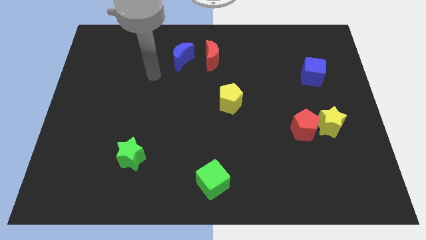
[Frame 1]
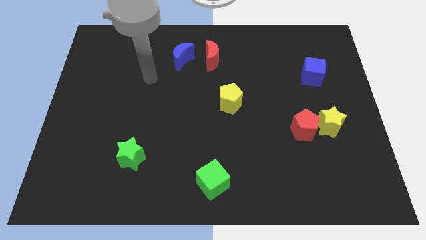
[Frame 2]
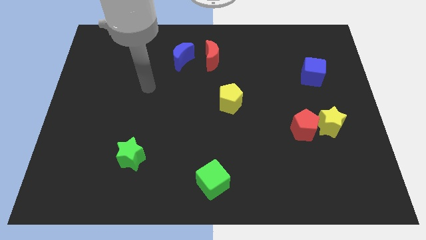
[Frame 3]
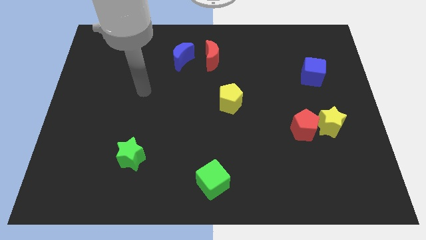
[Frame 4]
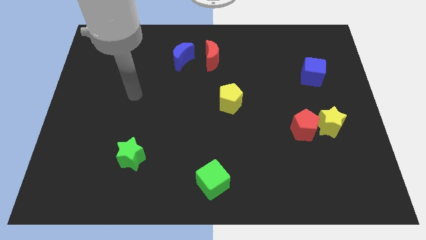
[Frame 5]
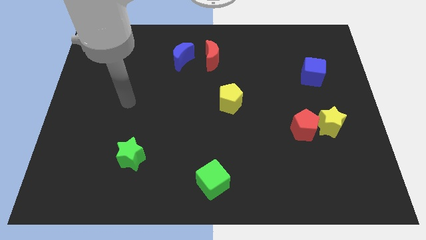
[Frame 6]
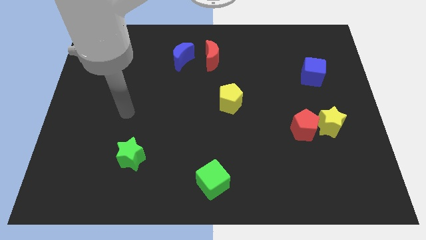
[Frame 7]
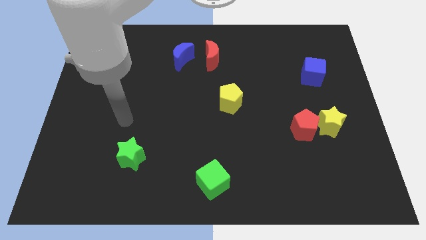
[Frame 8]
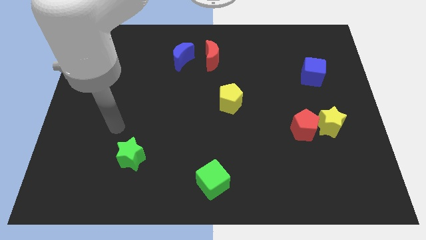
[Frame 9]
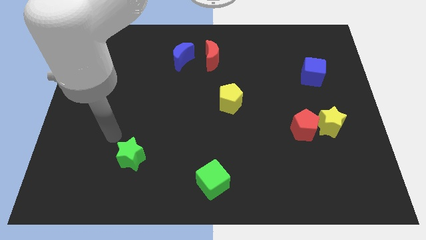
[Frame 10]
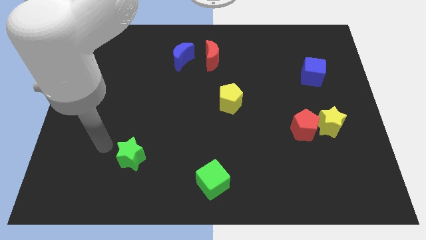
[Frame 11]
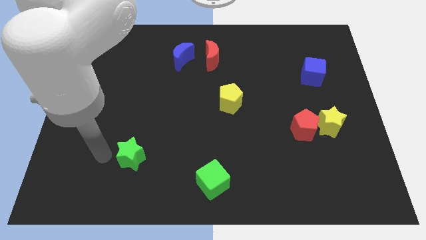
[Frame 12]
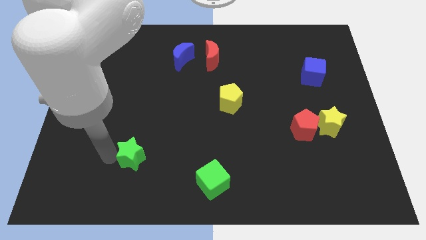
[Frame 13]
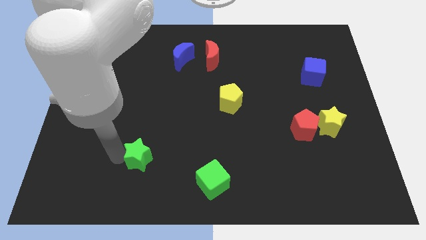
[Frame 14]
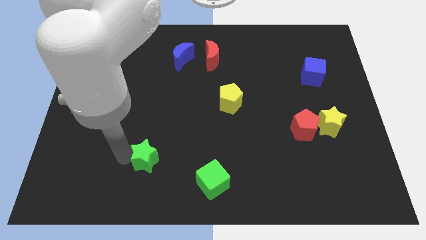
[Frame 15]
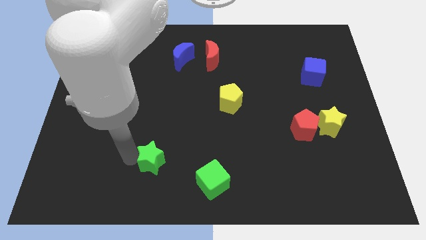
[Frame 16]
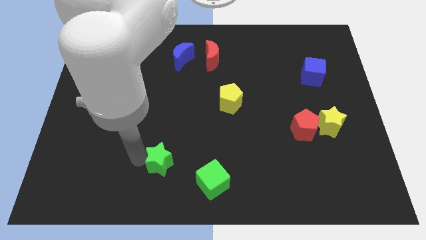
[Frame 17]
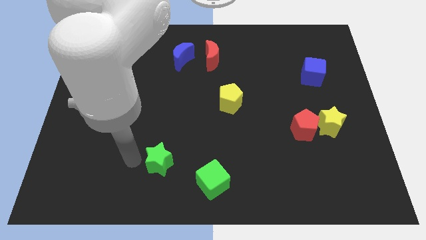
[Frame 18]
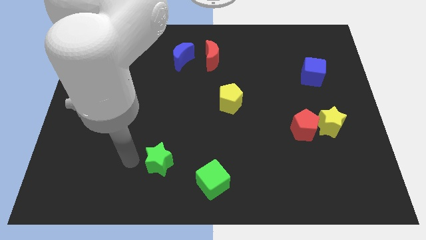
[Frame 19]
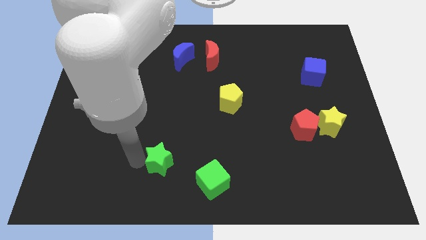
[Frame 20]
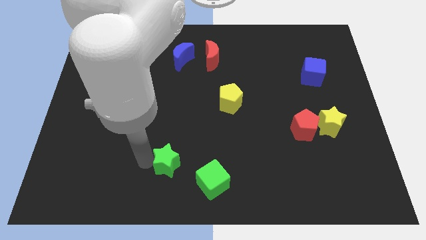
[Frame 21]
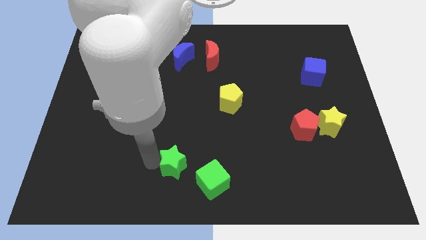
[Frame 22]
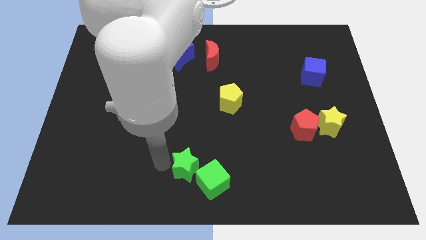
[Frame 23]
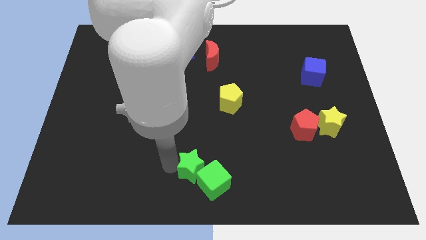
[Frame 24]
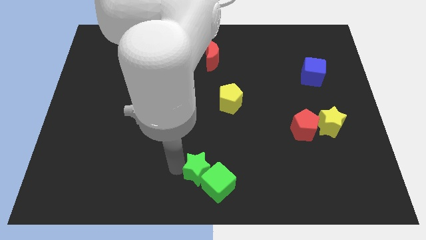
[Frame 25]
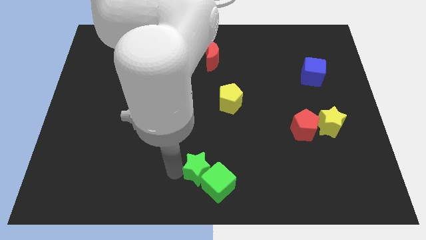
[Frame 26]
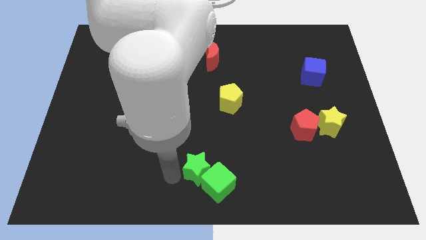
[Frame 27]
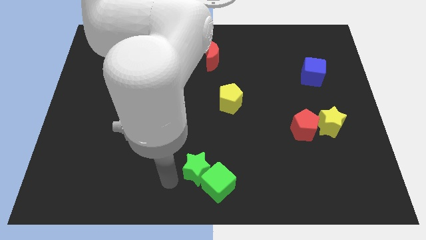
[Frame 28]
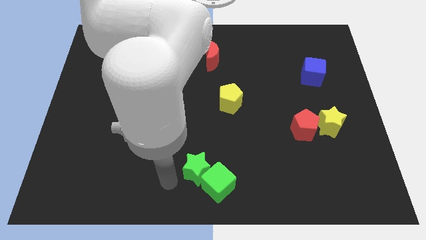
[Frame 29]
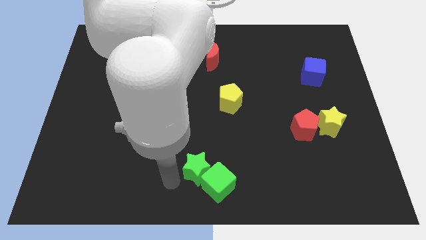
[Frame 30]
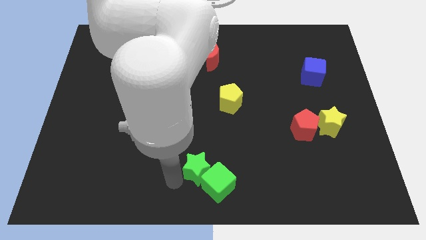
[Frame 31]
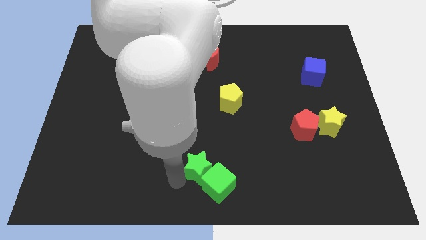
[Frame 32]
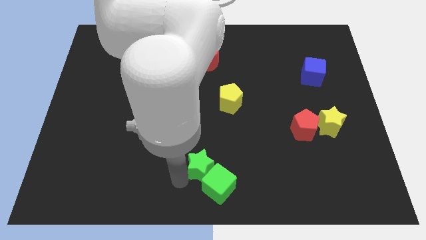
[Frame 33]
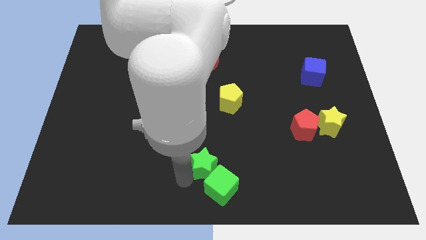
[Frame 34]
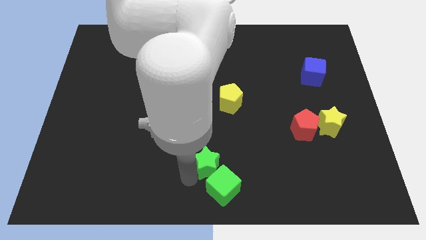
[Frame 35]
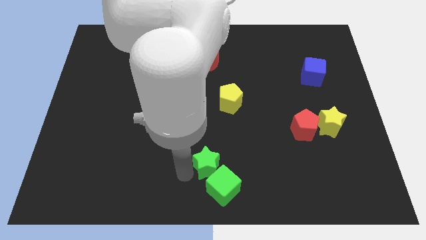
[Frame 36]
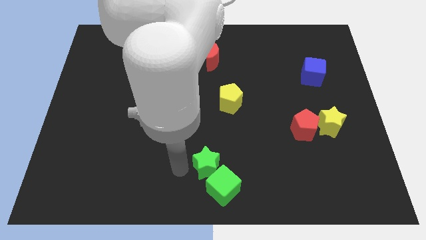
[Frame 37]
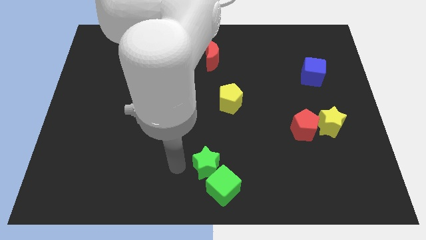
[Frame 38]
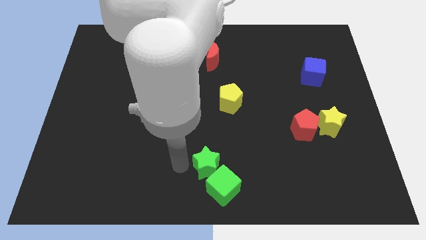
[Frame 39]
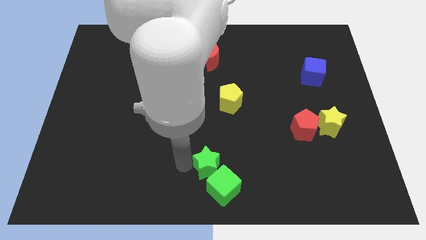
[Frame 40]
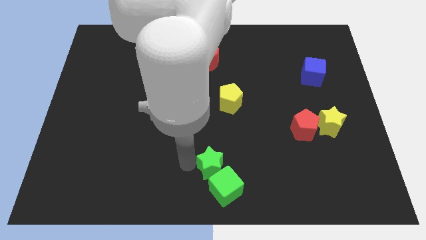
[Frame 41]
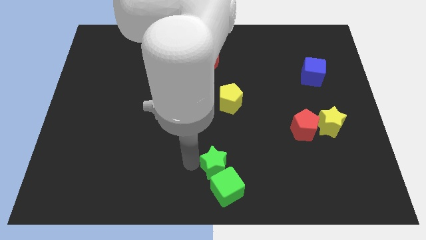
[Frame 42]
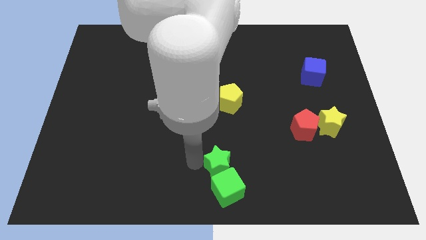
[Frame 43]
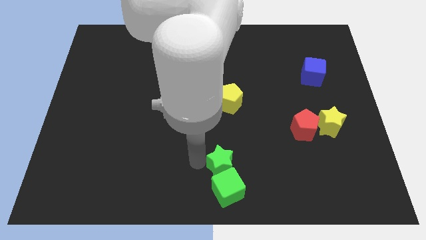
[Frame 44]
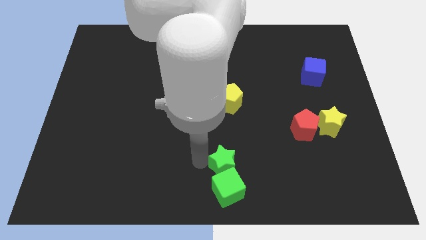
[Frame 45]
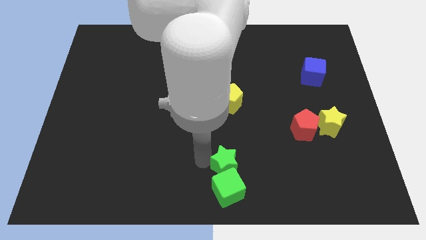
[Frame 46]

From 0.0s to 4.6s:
move the green star right

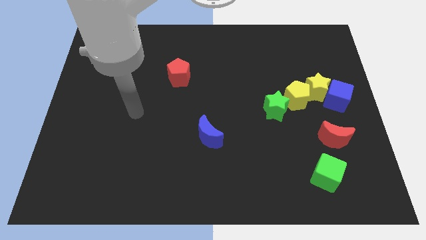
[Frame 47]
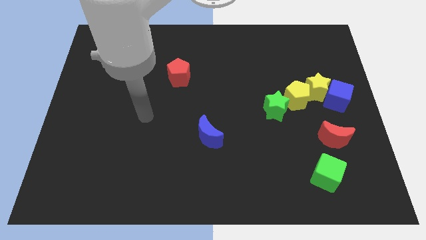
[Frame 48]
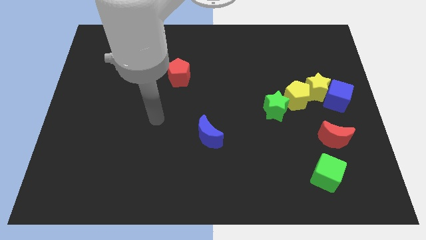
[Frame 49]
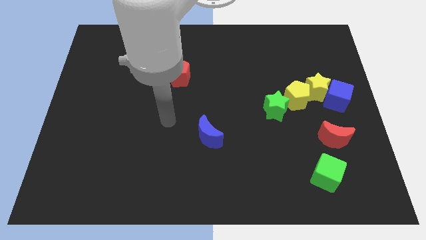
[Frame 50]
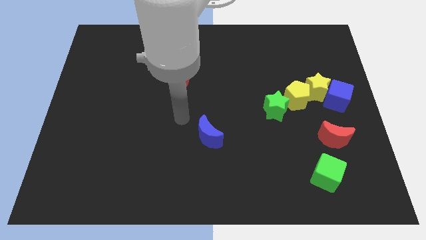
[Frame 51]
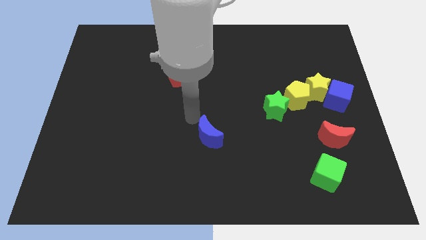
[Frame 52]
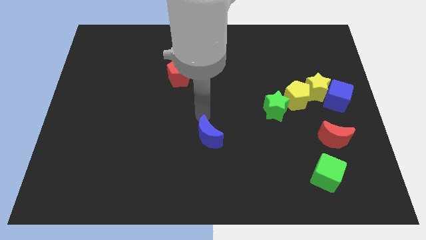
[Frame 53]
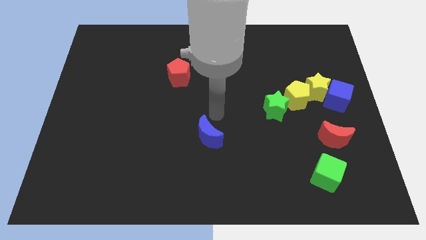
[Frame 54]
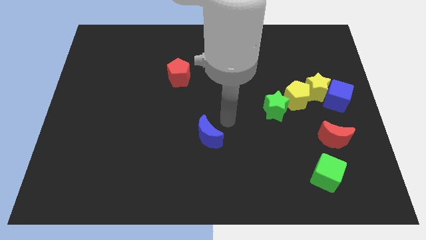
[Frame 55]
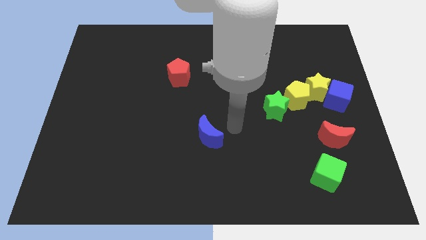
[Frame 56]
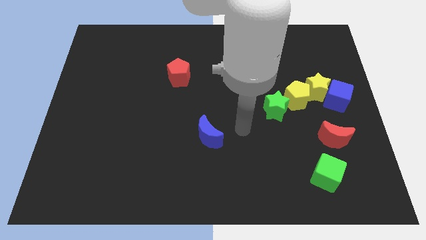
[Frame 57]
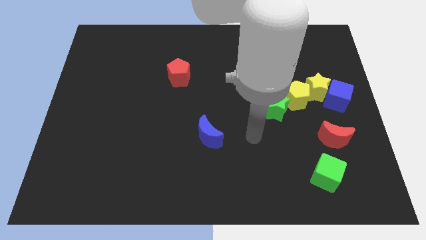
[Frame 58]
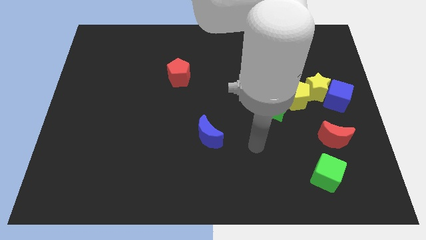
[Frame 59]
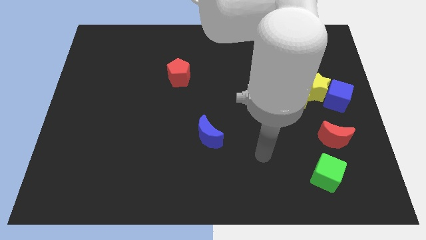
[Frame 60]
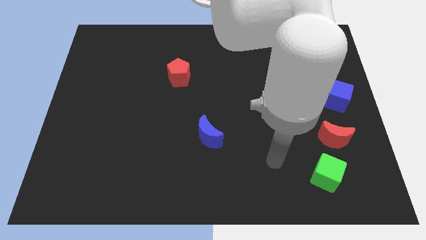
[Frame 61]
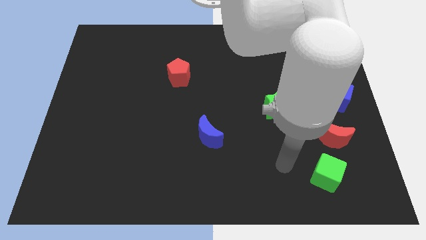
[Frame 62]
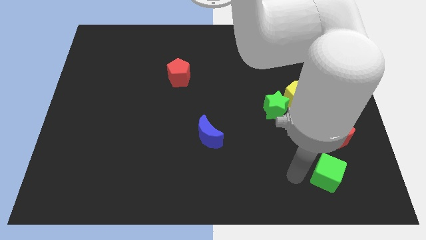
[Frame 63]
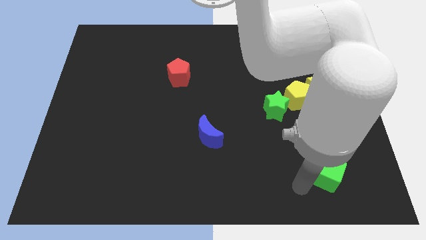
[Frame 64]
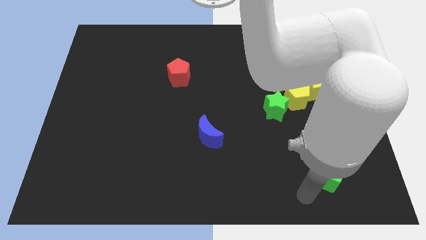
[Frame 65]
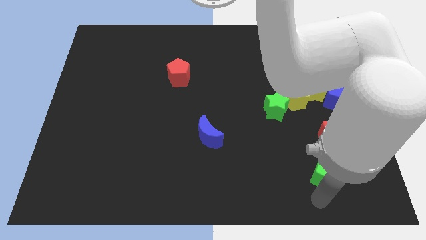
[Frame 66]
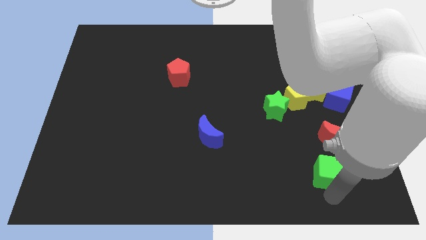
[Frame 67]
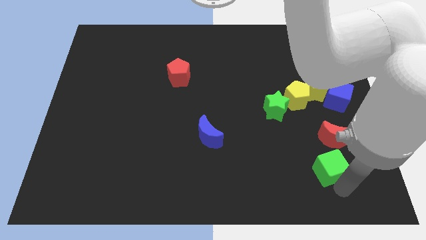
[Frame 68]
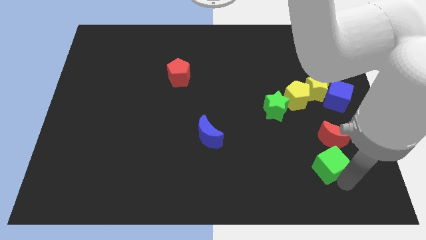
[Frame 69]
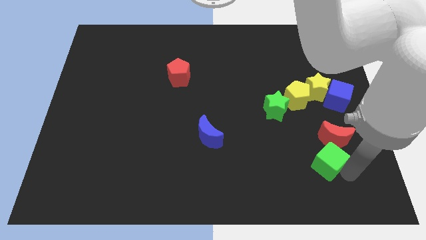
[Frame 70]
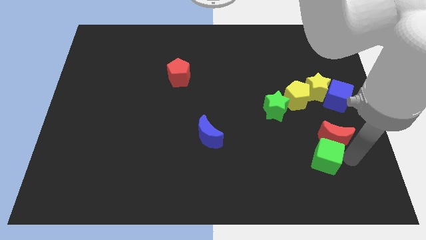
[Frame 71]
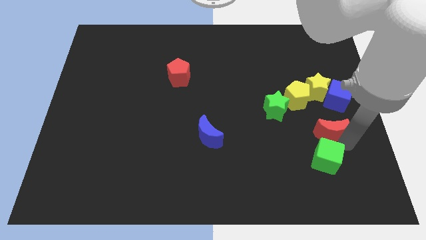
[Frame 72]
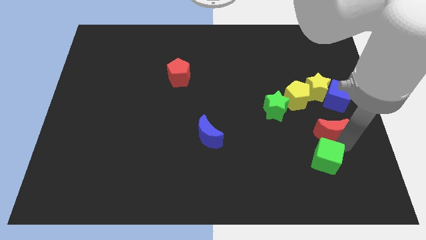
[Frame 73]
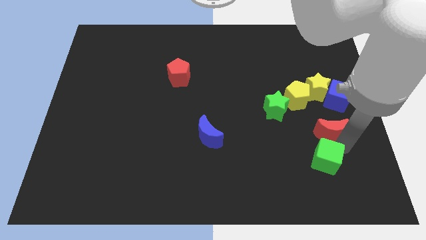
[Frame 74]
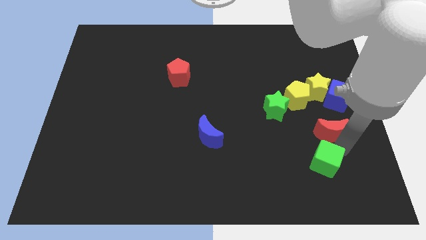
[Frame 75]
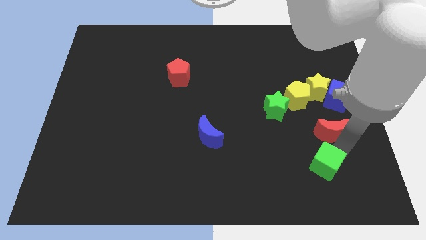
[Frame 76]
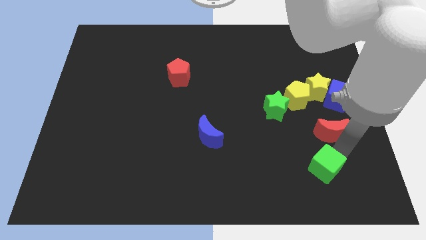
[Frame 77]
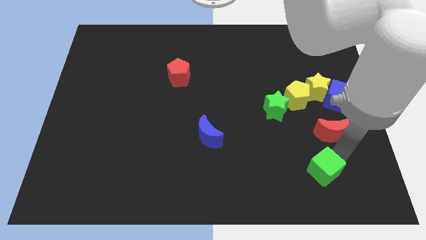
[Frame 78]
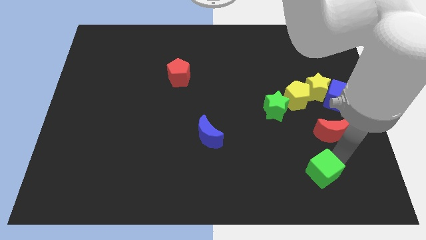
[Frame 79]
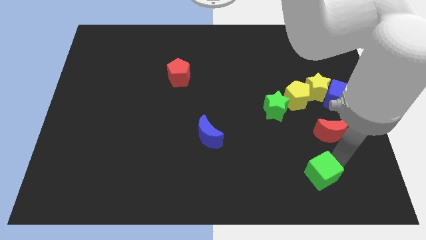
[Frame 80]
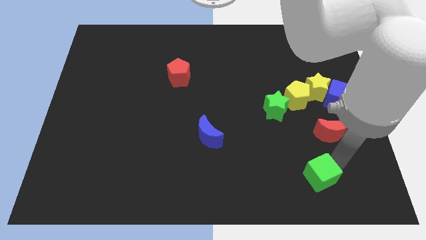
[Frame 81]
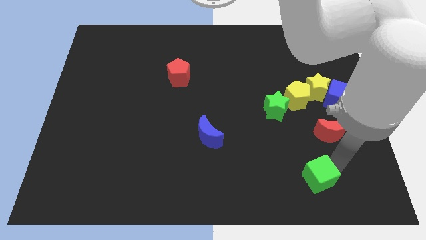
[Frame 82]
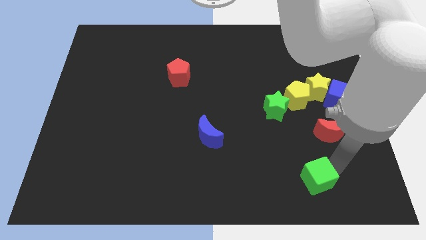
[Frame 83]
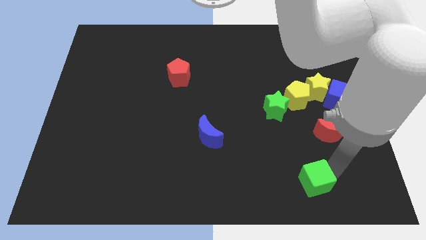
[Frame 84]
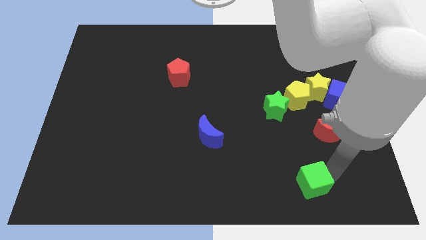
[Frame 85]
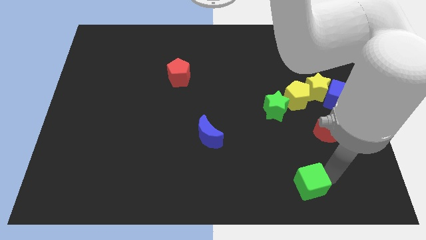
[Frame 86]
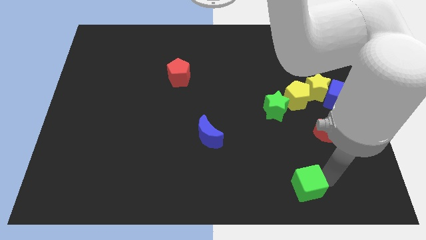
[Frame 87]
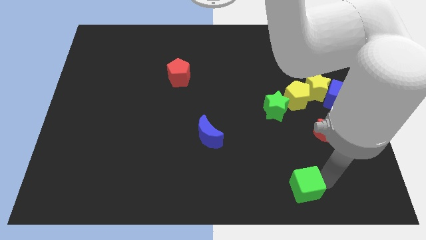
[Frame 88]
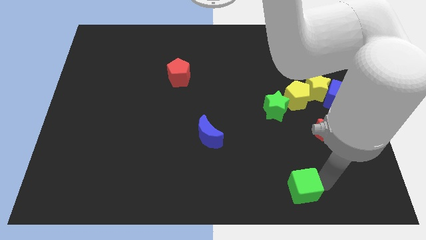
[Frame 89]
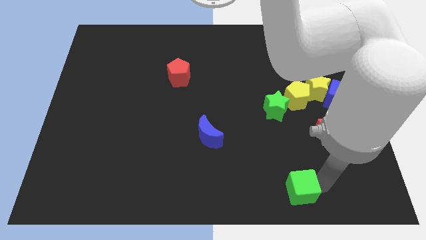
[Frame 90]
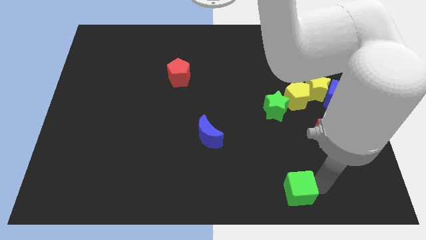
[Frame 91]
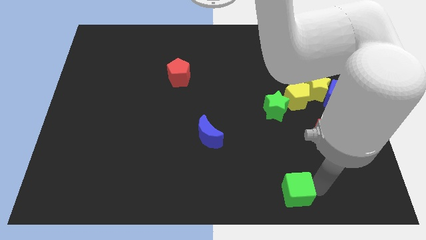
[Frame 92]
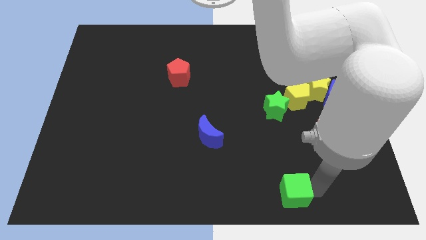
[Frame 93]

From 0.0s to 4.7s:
push the green cube a little to the left
